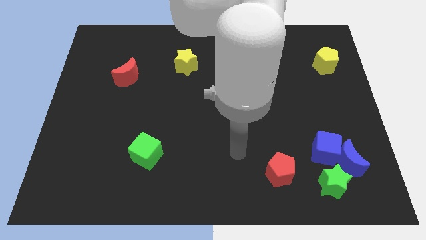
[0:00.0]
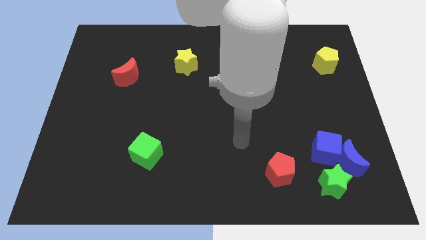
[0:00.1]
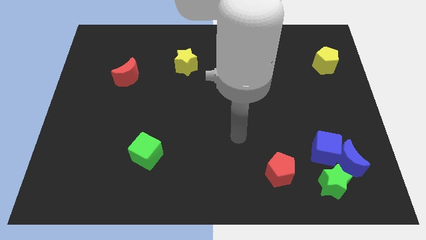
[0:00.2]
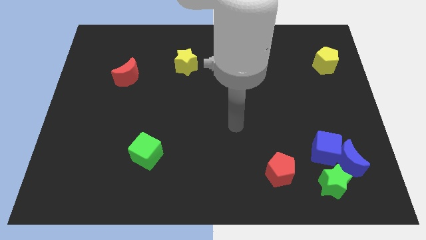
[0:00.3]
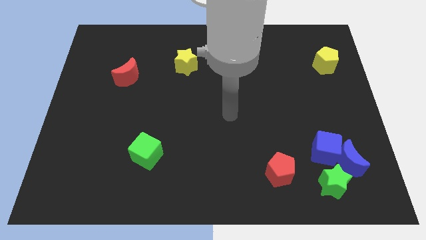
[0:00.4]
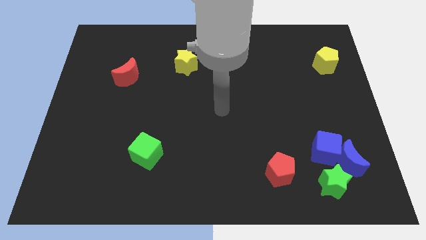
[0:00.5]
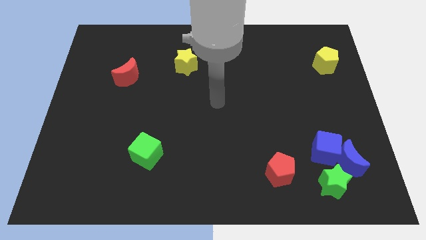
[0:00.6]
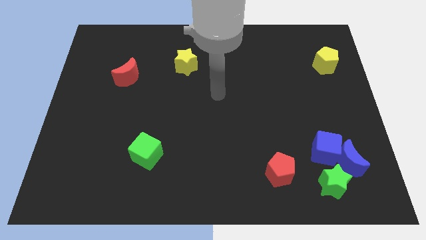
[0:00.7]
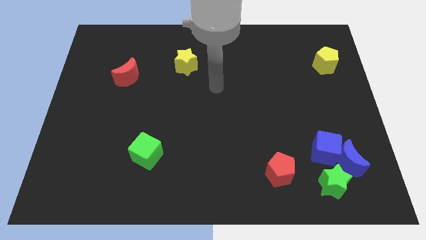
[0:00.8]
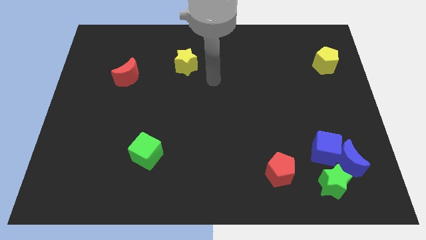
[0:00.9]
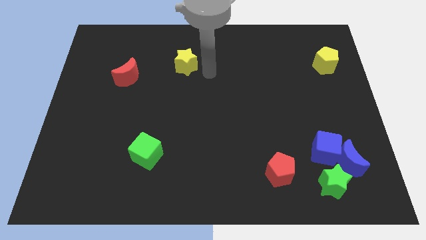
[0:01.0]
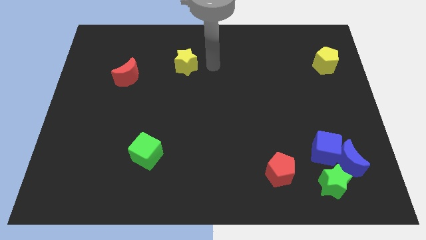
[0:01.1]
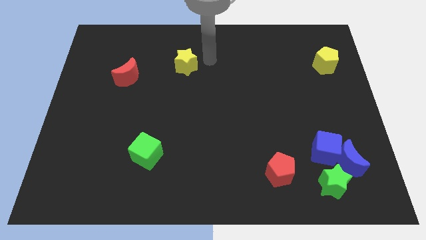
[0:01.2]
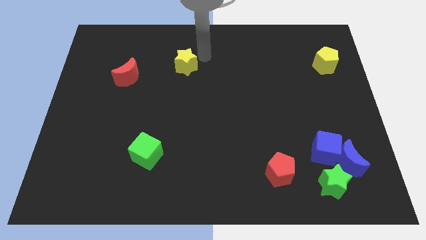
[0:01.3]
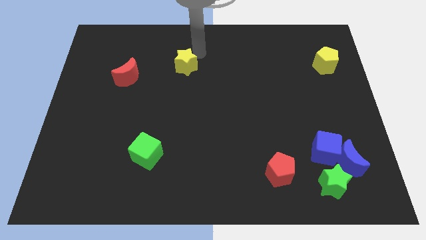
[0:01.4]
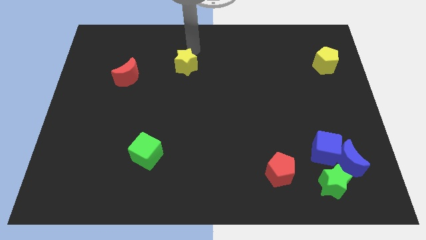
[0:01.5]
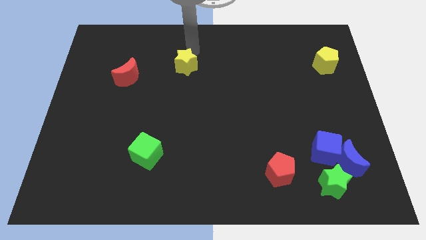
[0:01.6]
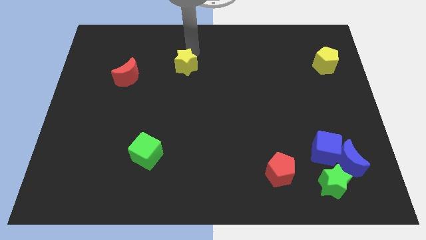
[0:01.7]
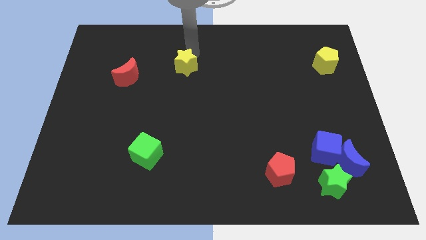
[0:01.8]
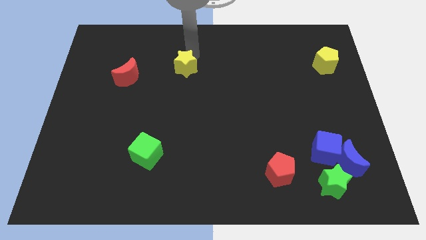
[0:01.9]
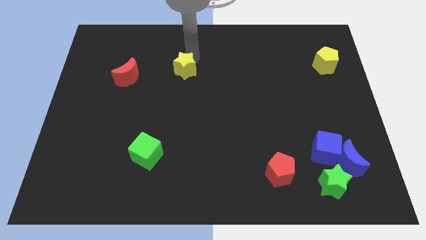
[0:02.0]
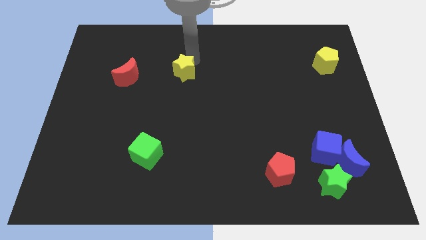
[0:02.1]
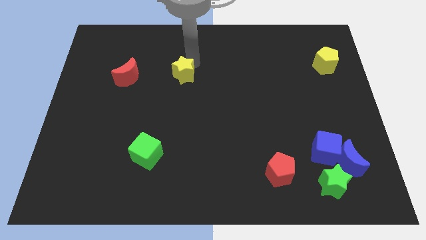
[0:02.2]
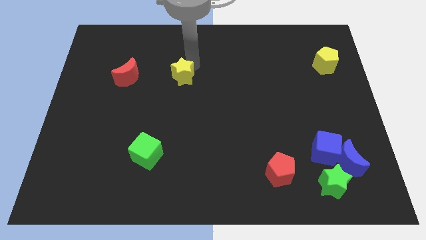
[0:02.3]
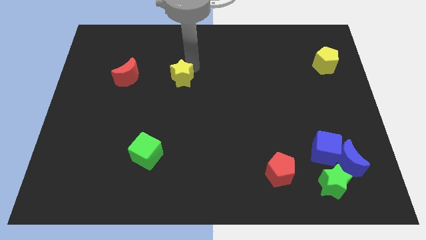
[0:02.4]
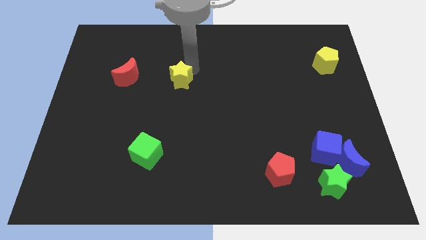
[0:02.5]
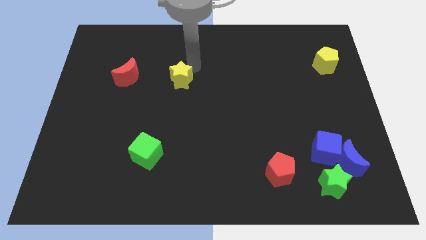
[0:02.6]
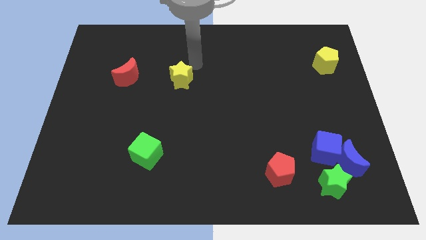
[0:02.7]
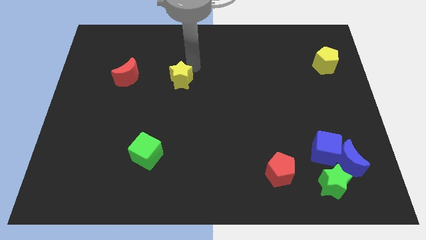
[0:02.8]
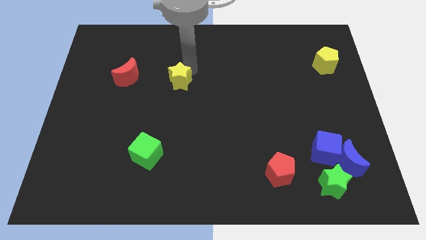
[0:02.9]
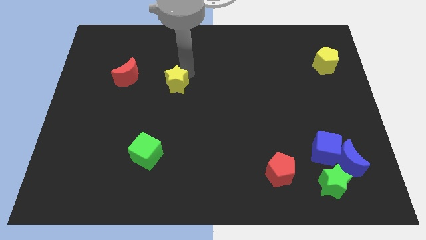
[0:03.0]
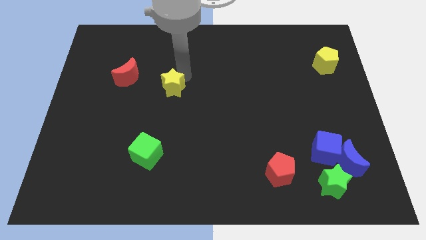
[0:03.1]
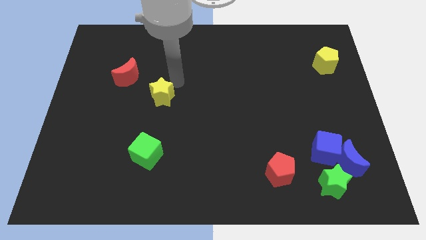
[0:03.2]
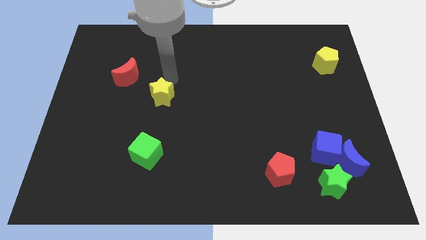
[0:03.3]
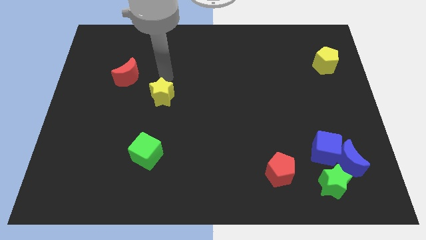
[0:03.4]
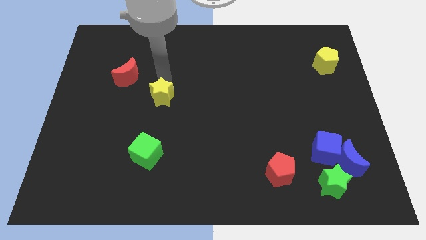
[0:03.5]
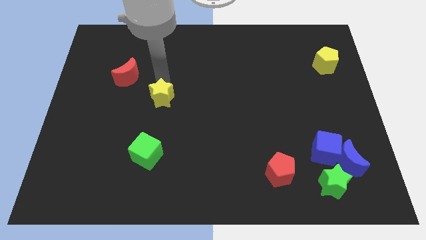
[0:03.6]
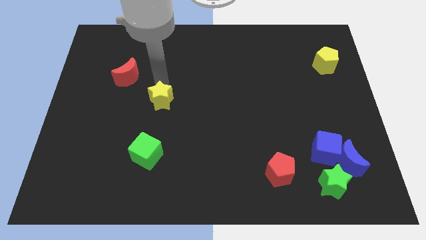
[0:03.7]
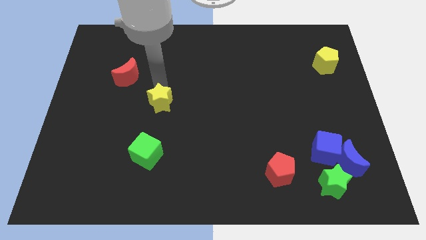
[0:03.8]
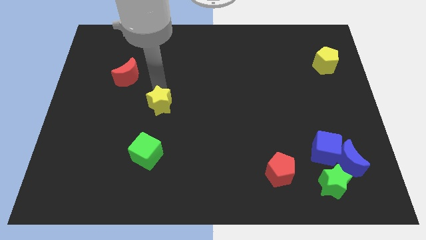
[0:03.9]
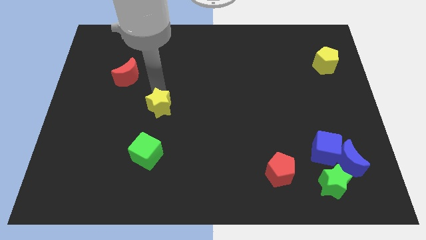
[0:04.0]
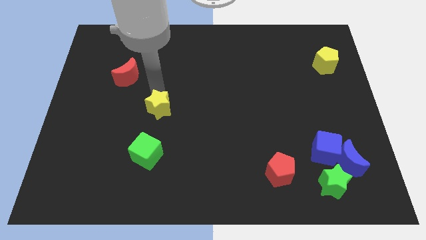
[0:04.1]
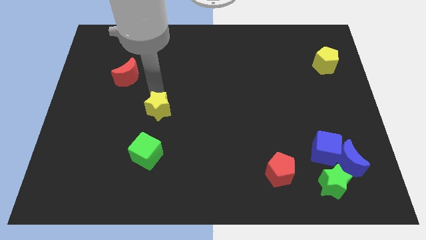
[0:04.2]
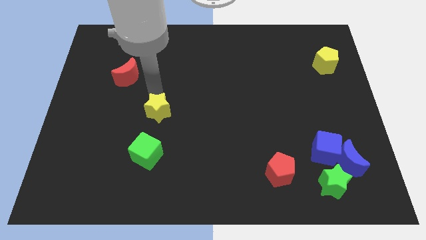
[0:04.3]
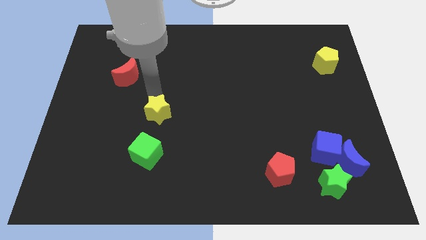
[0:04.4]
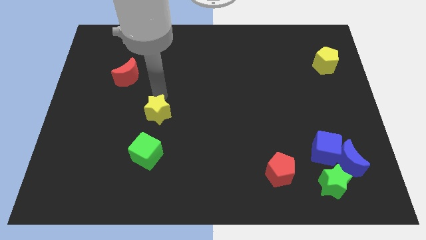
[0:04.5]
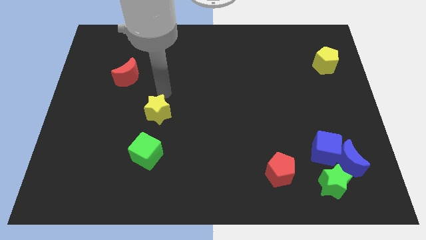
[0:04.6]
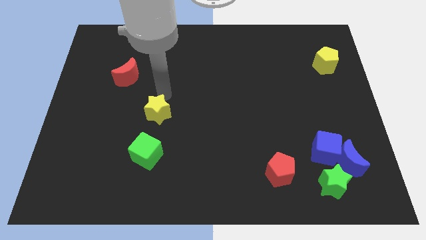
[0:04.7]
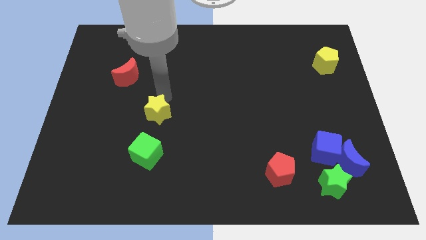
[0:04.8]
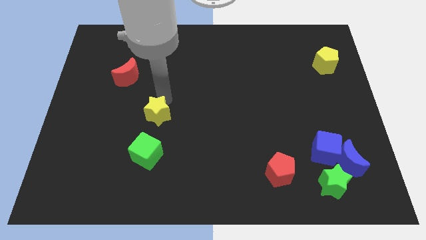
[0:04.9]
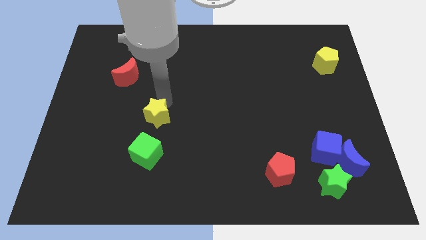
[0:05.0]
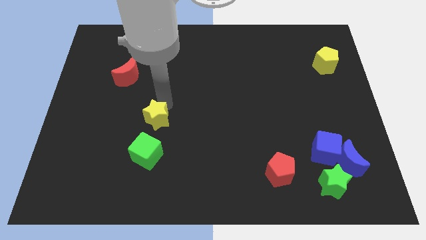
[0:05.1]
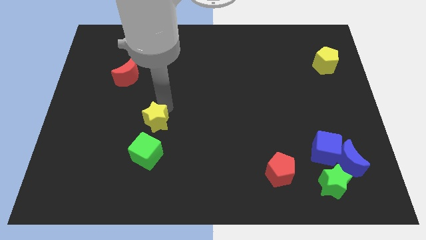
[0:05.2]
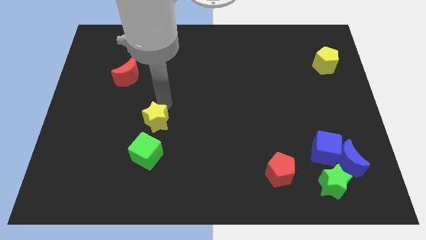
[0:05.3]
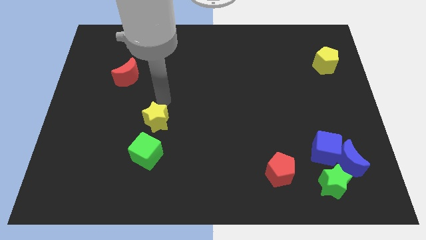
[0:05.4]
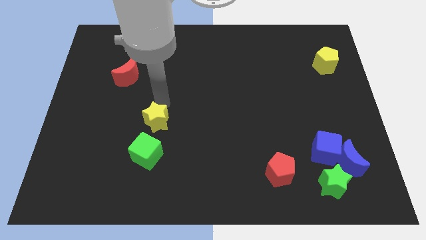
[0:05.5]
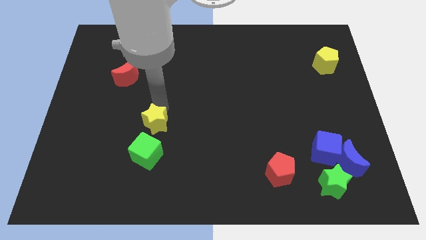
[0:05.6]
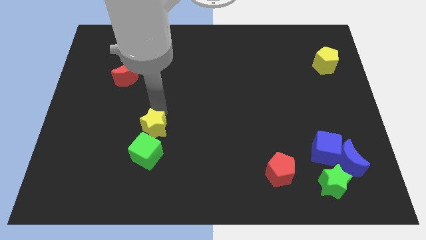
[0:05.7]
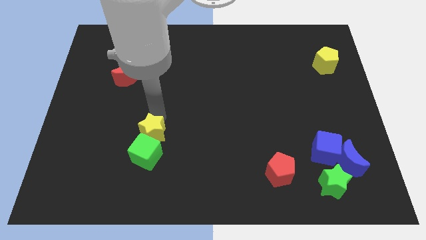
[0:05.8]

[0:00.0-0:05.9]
push the yellow star towards the green cube

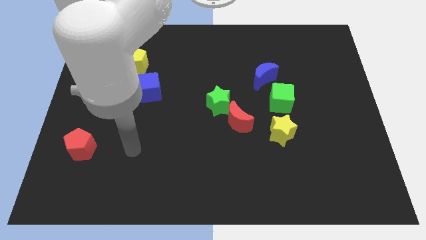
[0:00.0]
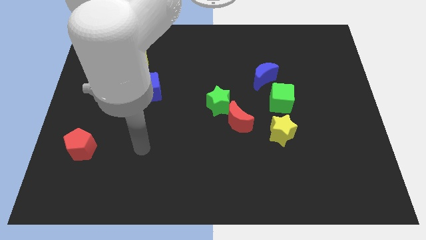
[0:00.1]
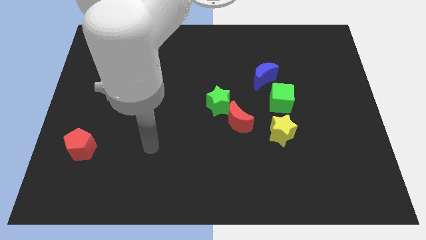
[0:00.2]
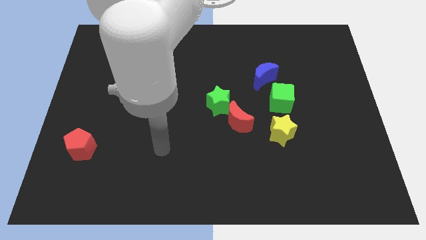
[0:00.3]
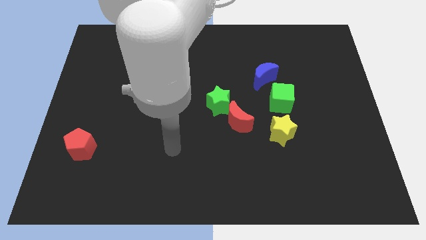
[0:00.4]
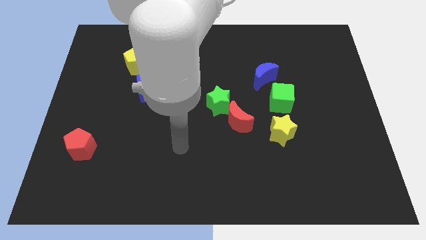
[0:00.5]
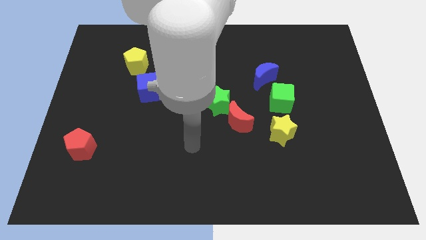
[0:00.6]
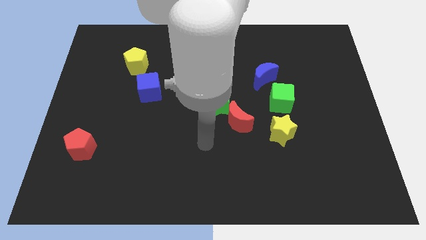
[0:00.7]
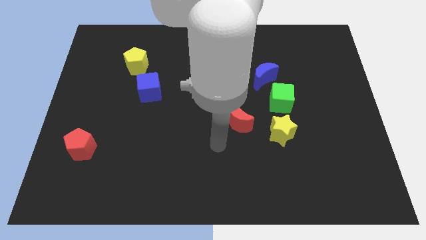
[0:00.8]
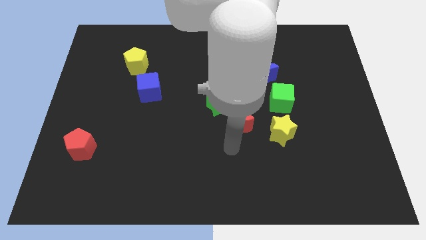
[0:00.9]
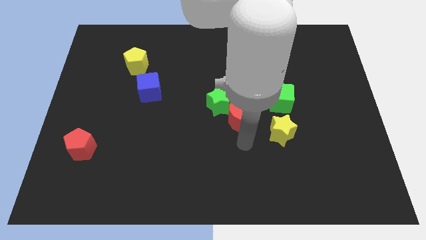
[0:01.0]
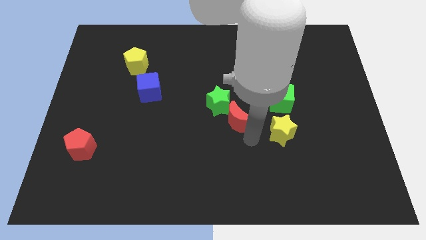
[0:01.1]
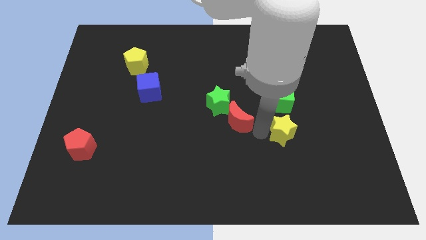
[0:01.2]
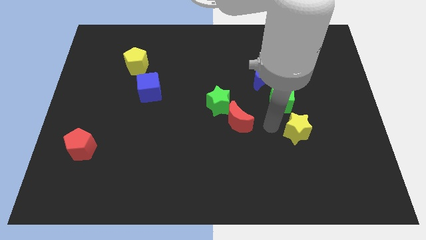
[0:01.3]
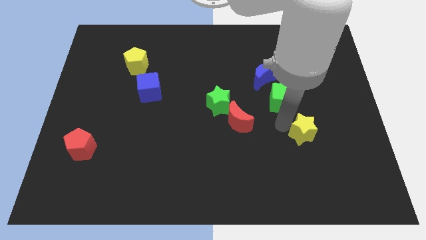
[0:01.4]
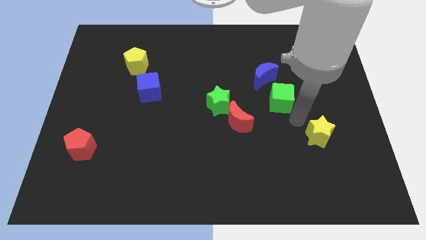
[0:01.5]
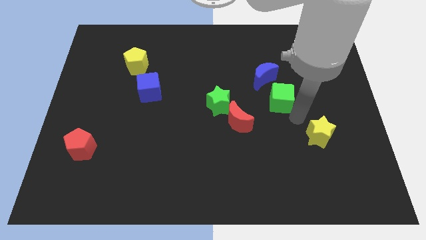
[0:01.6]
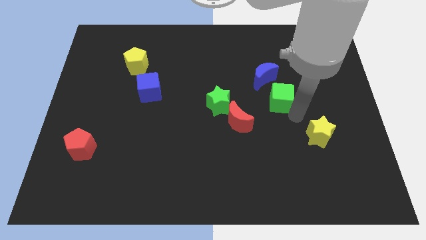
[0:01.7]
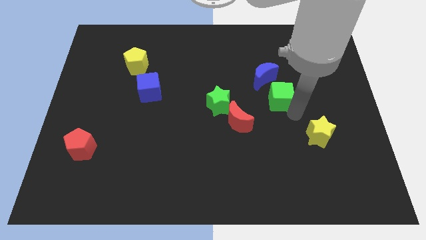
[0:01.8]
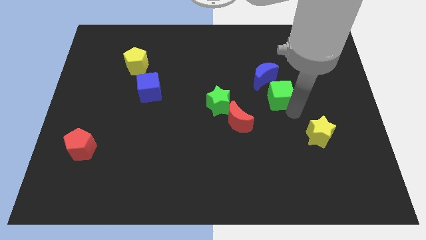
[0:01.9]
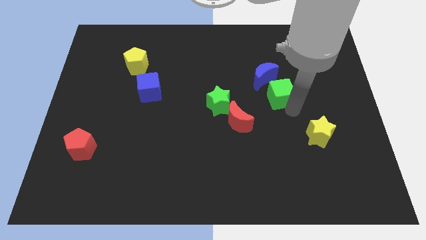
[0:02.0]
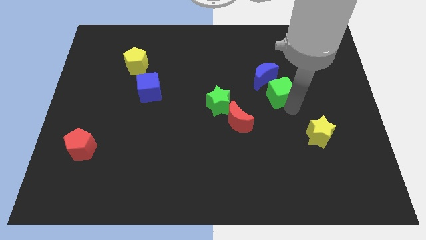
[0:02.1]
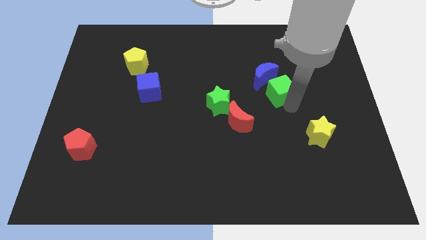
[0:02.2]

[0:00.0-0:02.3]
slide the green cube towards the blue moon
